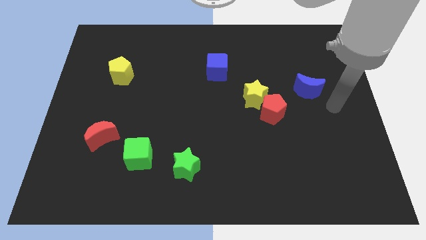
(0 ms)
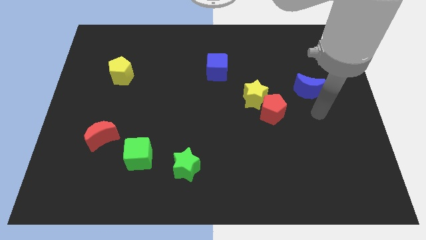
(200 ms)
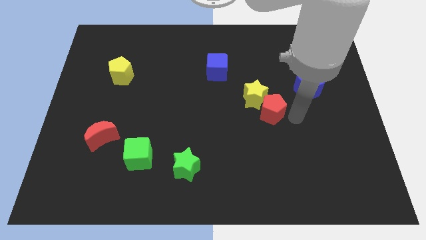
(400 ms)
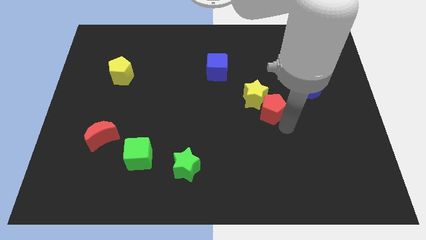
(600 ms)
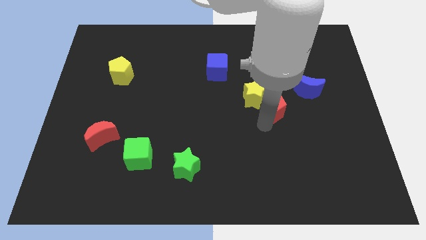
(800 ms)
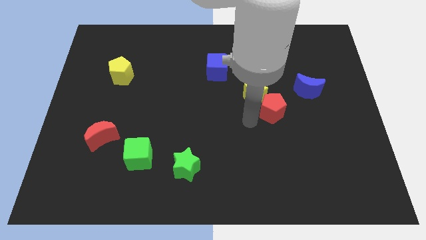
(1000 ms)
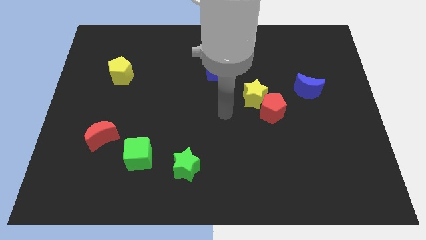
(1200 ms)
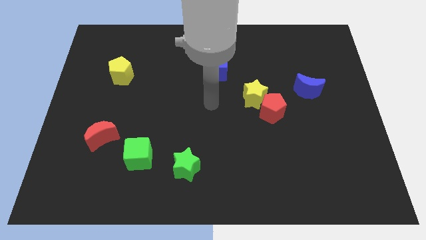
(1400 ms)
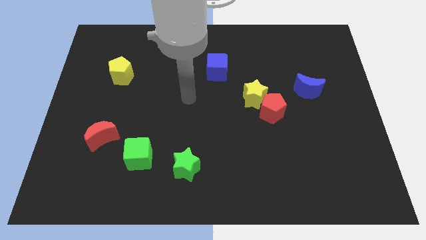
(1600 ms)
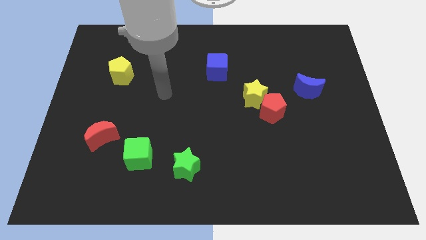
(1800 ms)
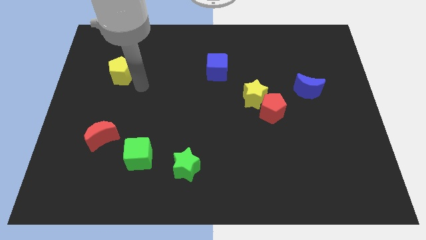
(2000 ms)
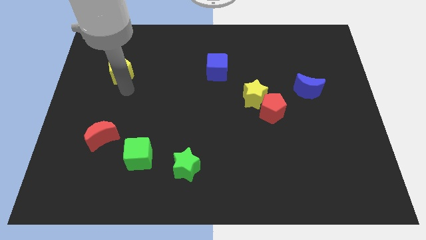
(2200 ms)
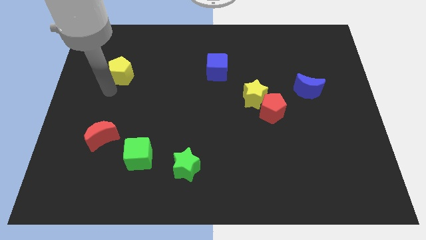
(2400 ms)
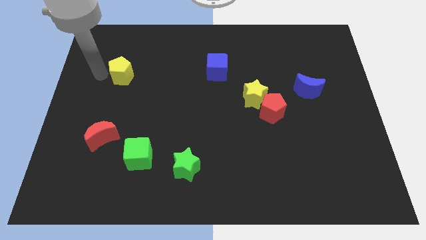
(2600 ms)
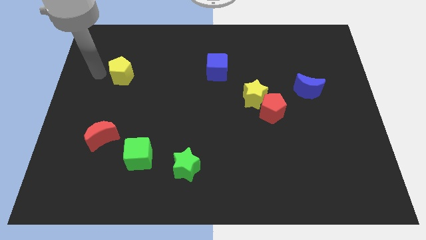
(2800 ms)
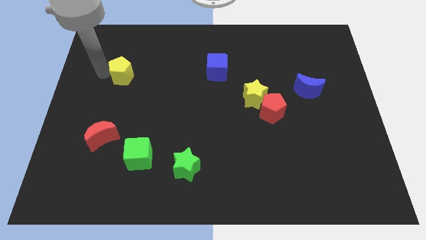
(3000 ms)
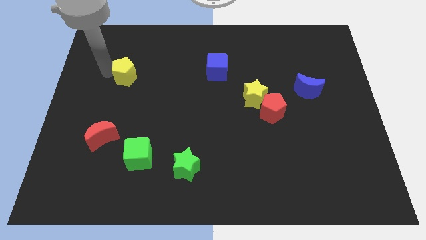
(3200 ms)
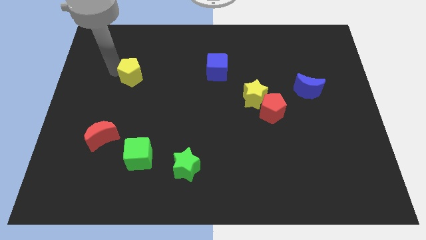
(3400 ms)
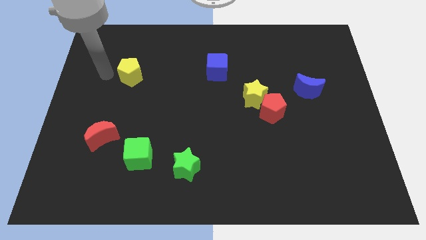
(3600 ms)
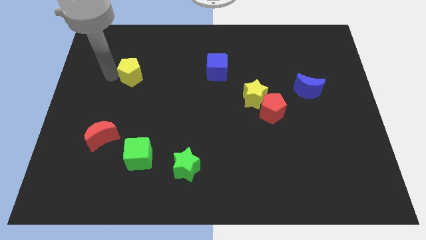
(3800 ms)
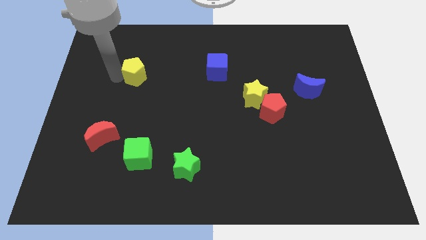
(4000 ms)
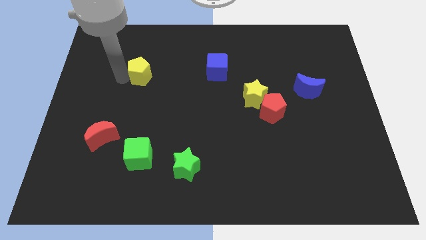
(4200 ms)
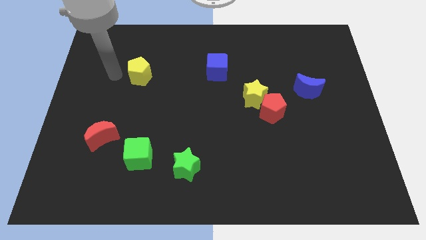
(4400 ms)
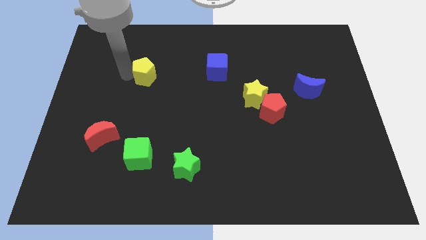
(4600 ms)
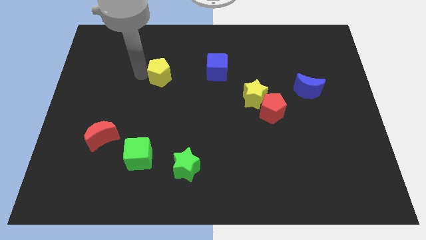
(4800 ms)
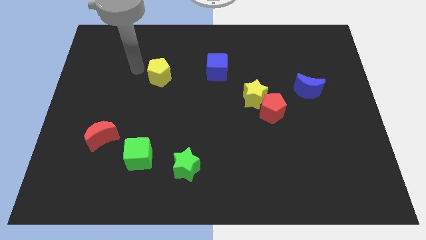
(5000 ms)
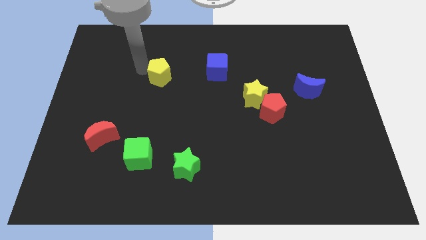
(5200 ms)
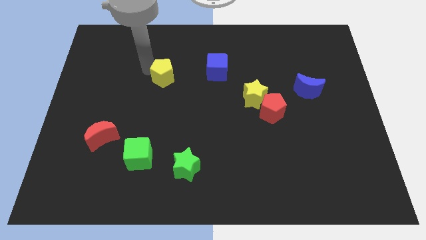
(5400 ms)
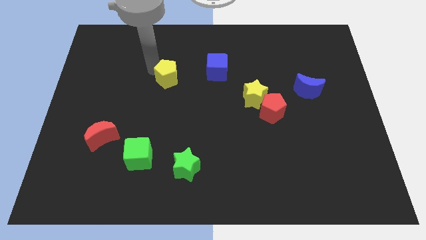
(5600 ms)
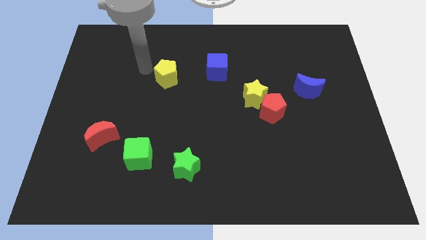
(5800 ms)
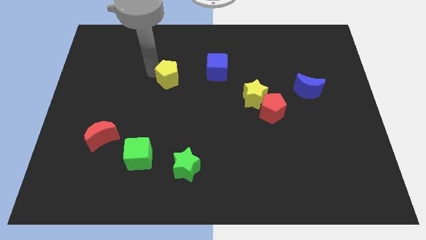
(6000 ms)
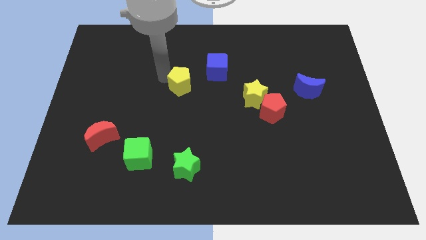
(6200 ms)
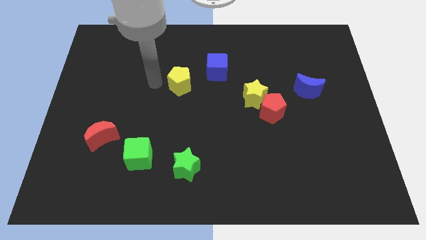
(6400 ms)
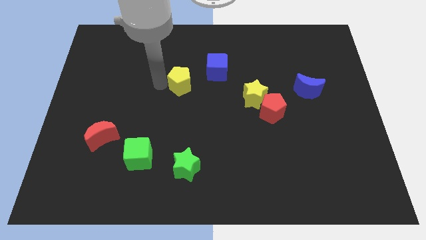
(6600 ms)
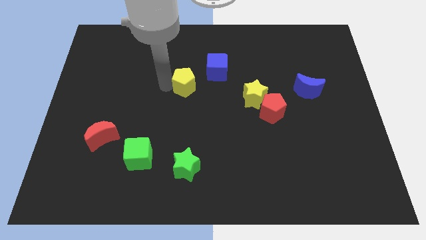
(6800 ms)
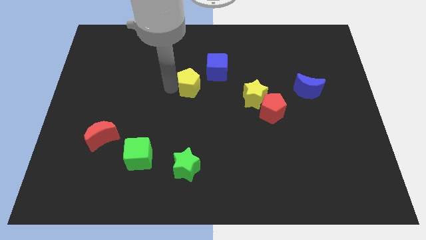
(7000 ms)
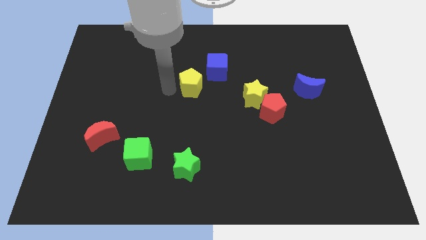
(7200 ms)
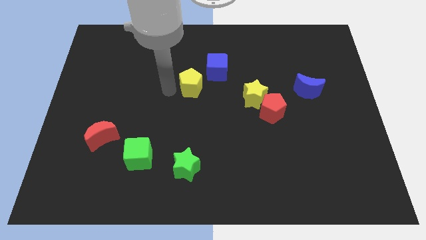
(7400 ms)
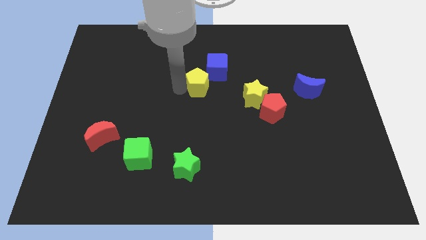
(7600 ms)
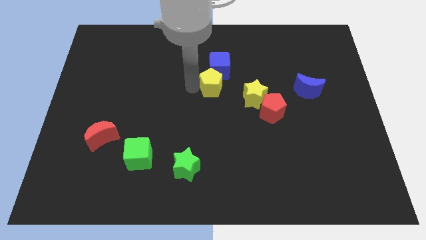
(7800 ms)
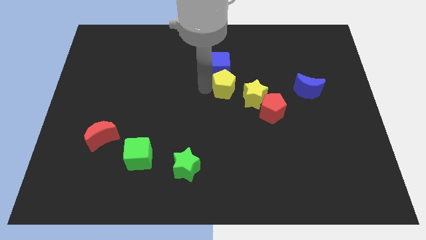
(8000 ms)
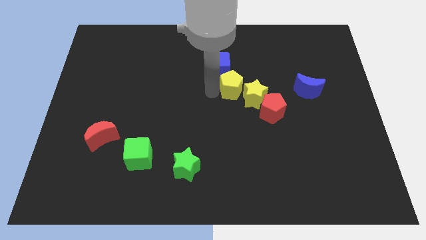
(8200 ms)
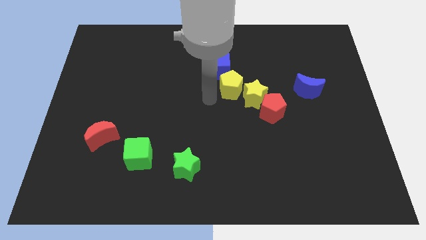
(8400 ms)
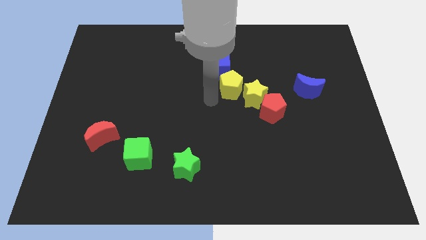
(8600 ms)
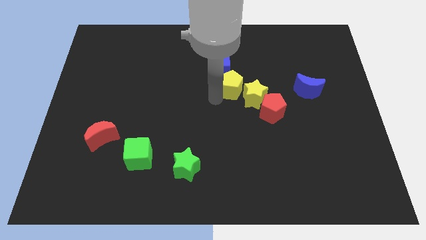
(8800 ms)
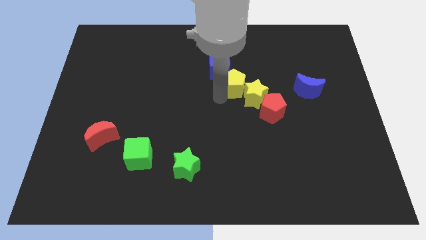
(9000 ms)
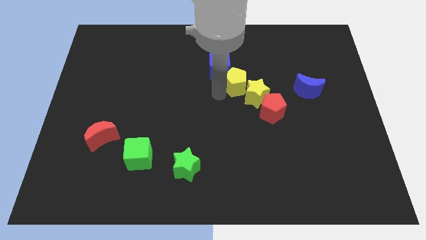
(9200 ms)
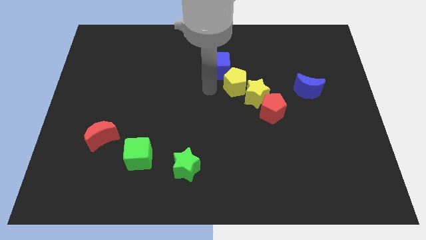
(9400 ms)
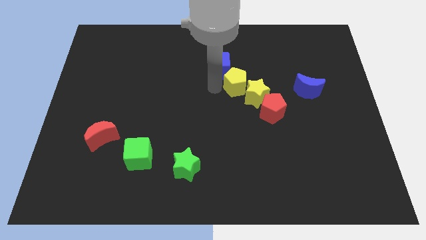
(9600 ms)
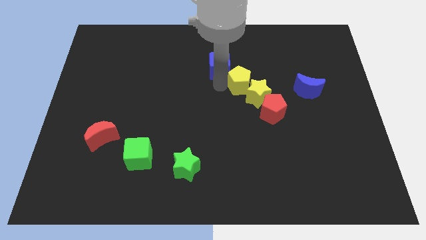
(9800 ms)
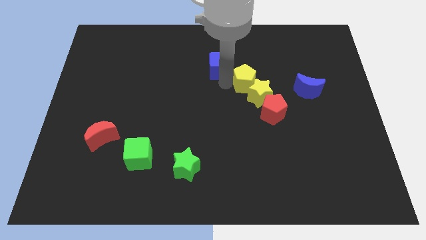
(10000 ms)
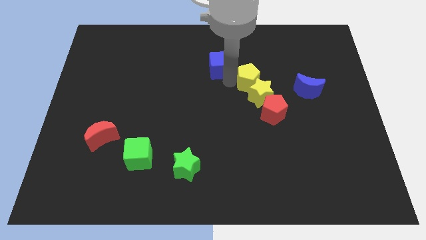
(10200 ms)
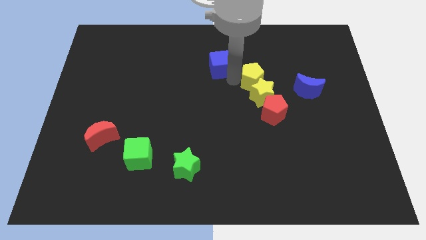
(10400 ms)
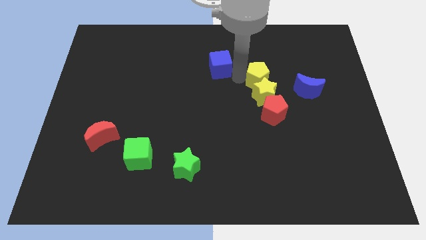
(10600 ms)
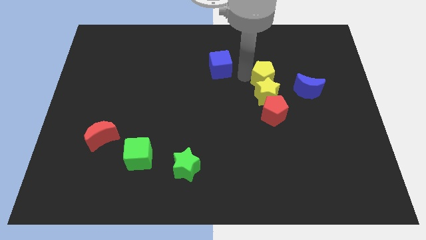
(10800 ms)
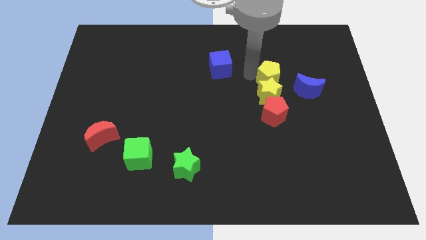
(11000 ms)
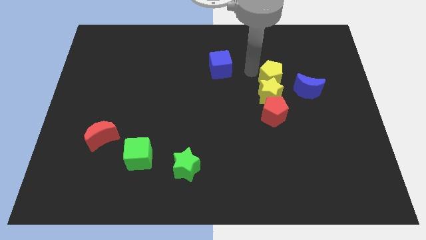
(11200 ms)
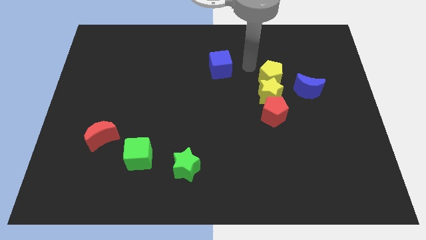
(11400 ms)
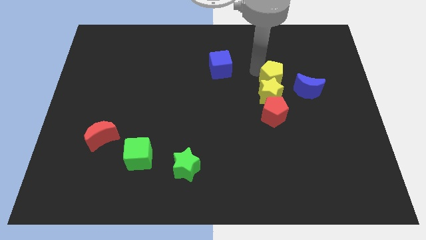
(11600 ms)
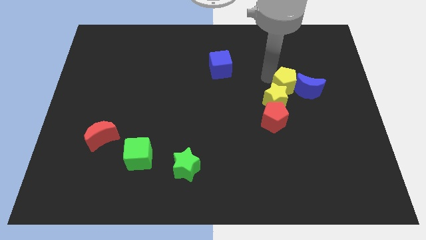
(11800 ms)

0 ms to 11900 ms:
put the yellow pentagon towards the blue moon

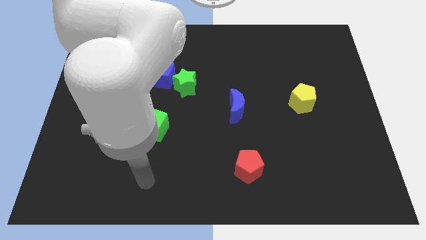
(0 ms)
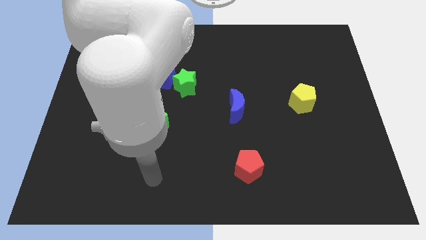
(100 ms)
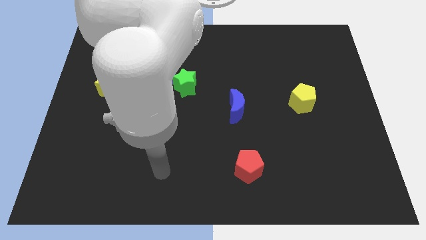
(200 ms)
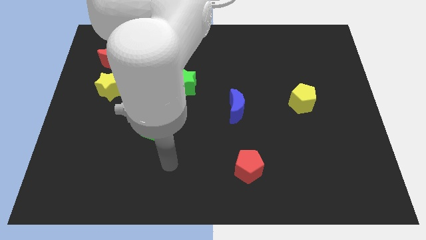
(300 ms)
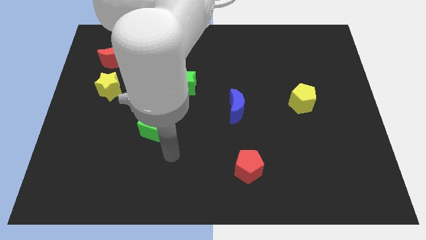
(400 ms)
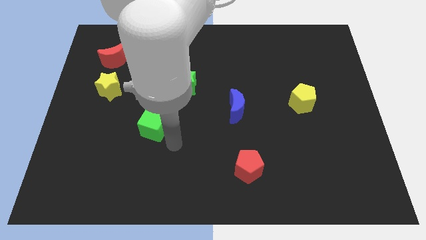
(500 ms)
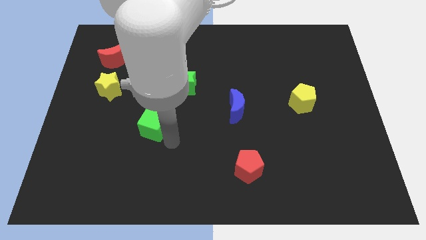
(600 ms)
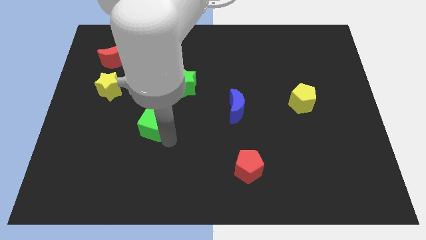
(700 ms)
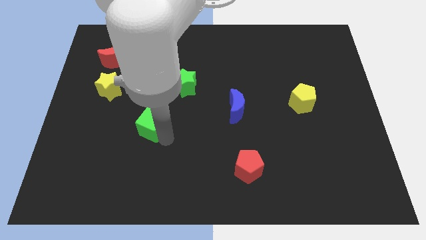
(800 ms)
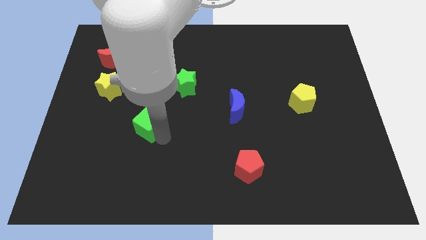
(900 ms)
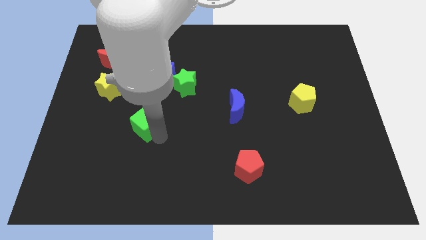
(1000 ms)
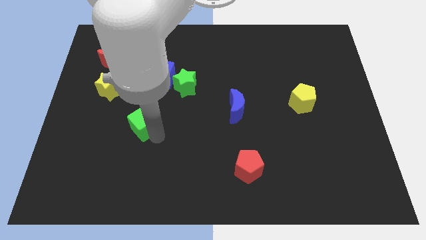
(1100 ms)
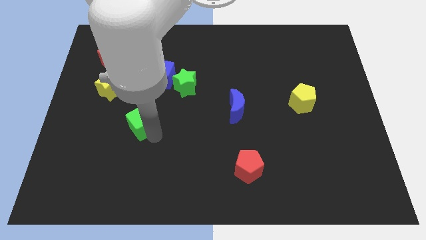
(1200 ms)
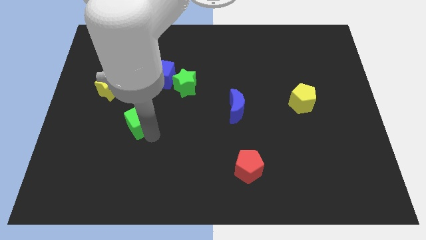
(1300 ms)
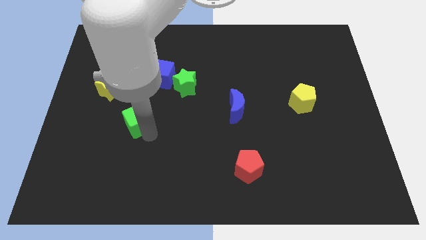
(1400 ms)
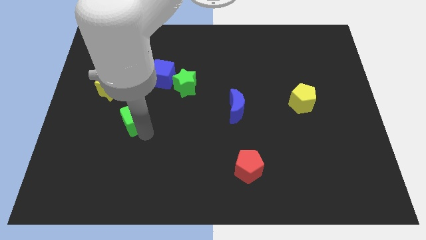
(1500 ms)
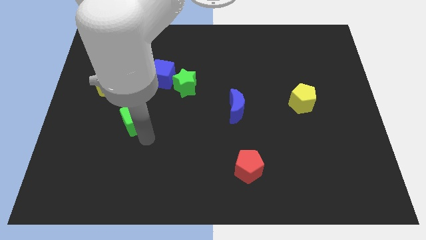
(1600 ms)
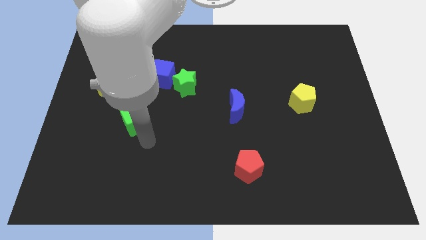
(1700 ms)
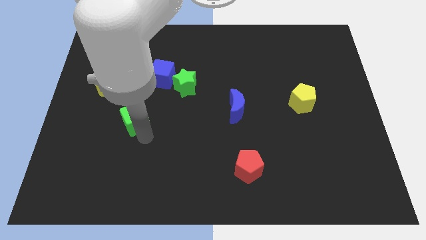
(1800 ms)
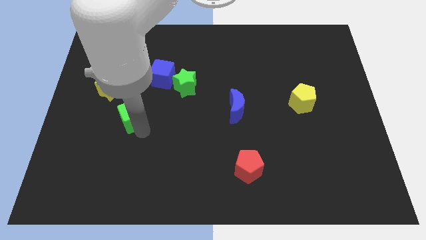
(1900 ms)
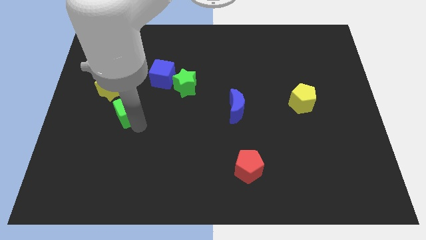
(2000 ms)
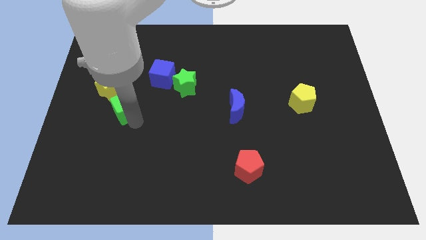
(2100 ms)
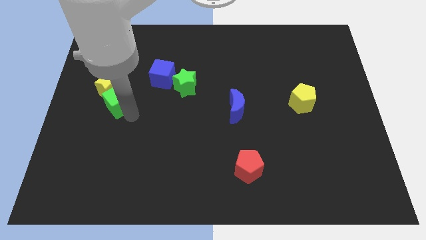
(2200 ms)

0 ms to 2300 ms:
put the green cube close to the yellow star
